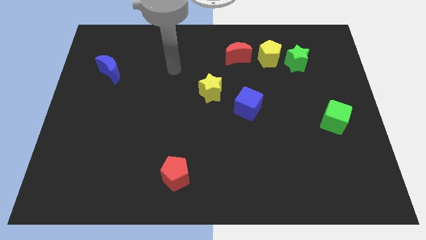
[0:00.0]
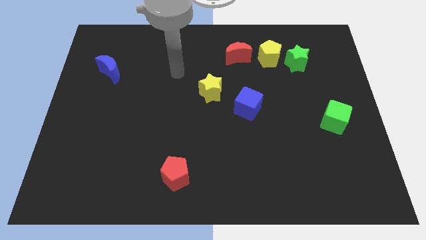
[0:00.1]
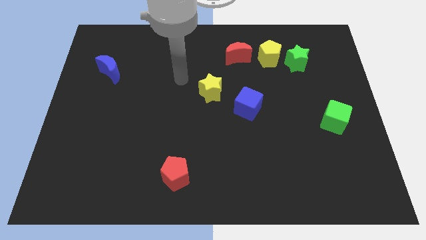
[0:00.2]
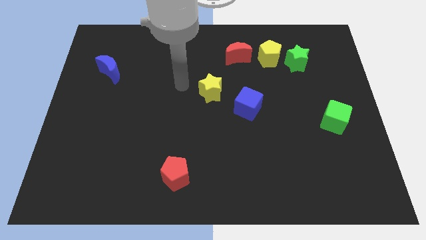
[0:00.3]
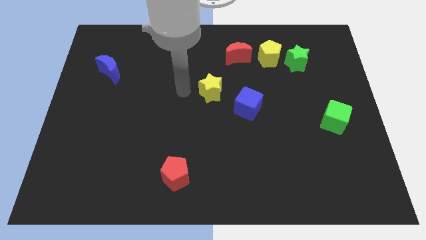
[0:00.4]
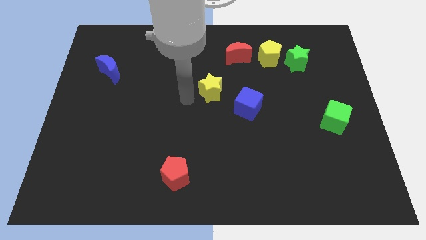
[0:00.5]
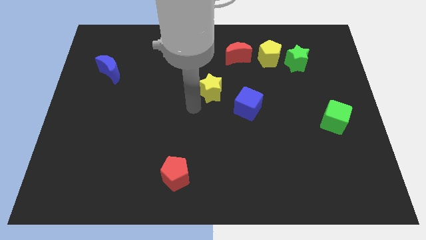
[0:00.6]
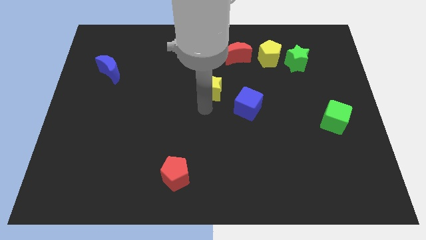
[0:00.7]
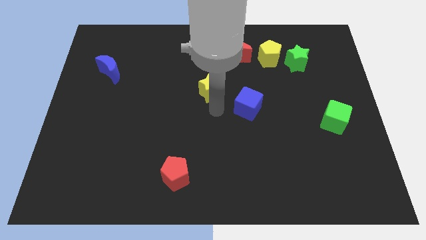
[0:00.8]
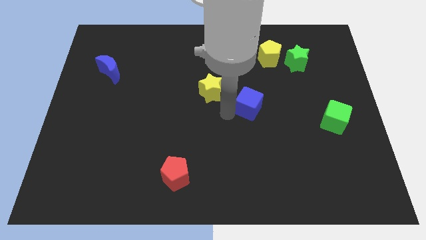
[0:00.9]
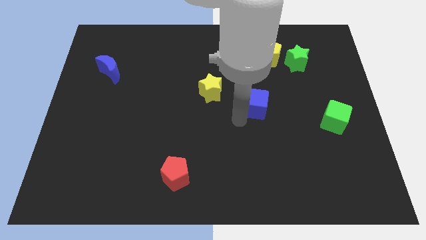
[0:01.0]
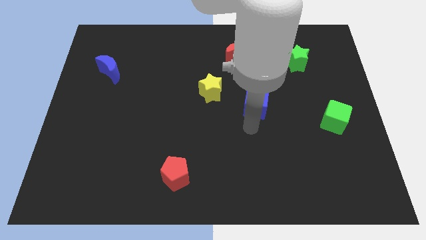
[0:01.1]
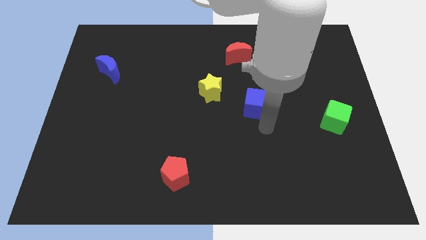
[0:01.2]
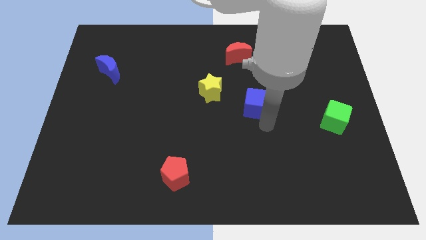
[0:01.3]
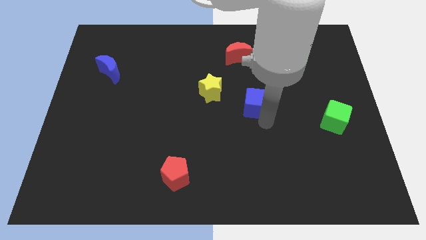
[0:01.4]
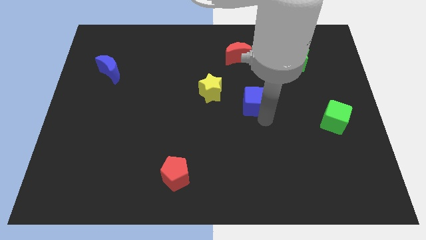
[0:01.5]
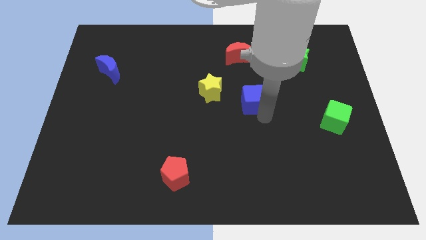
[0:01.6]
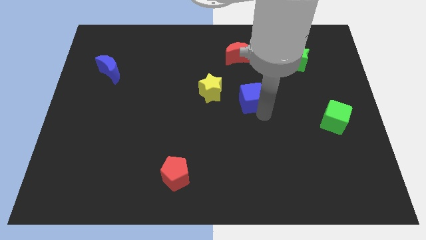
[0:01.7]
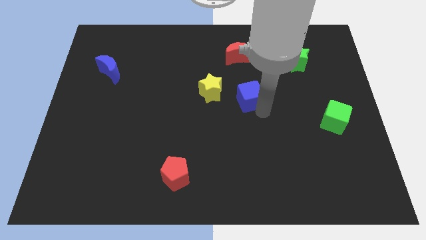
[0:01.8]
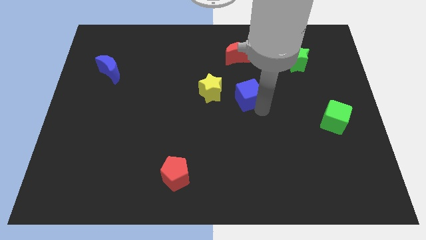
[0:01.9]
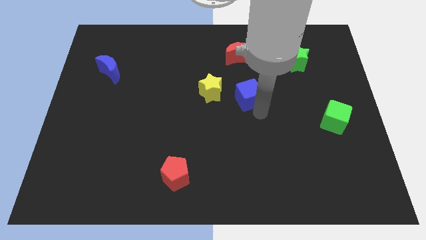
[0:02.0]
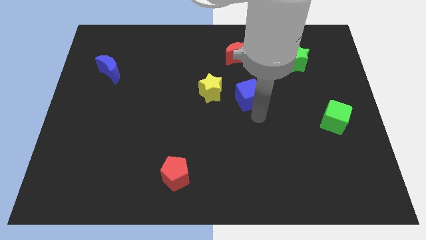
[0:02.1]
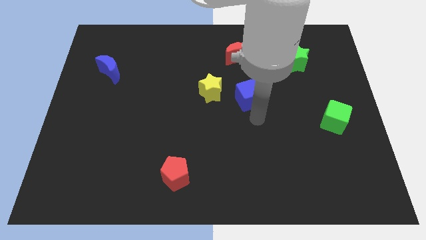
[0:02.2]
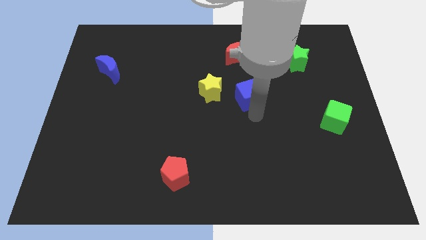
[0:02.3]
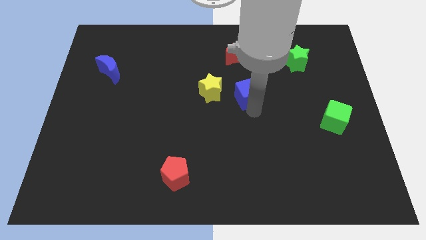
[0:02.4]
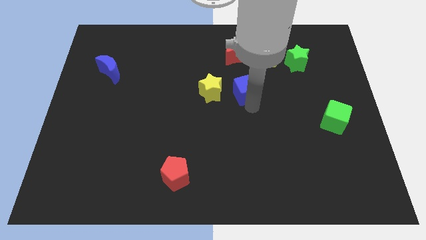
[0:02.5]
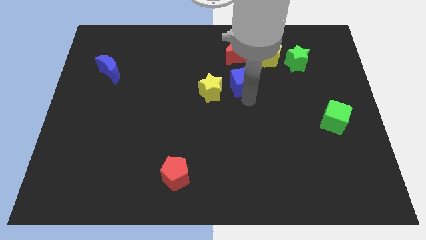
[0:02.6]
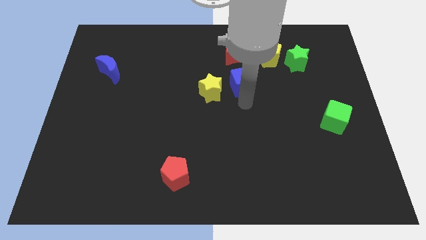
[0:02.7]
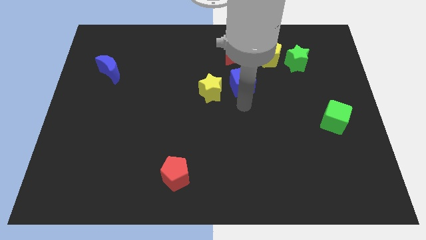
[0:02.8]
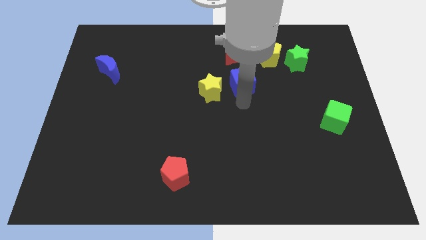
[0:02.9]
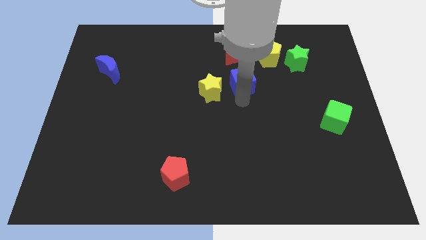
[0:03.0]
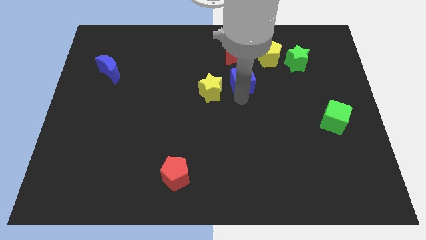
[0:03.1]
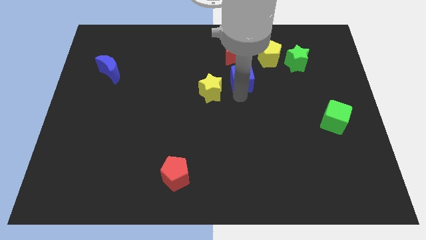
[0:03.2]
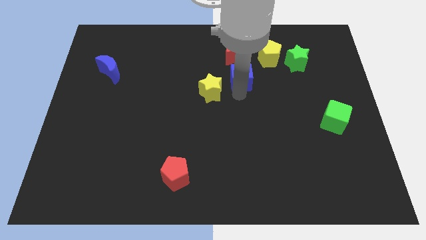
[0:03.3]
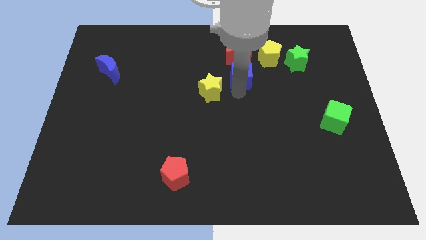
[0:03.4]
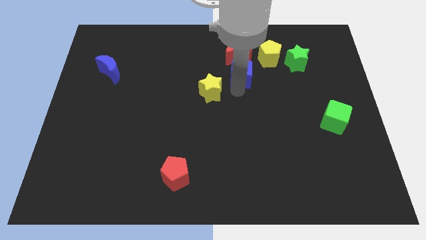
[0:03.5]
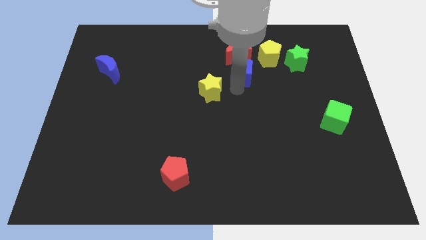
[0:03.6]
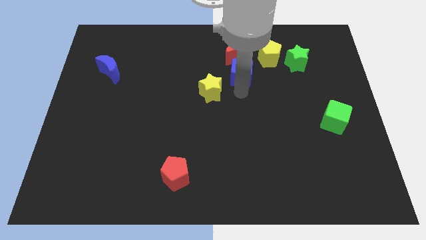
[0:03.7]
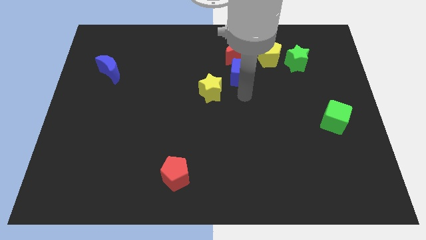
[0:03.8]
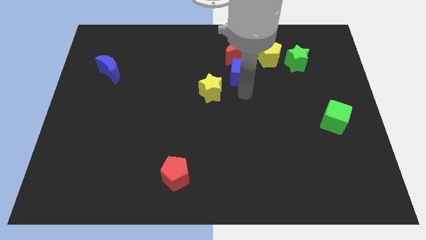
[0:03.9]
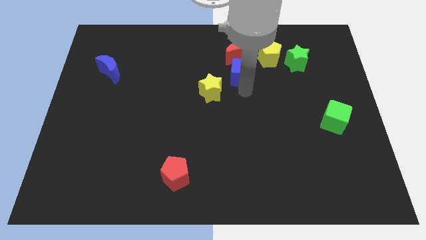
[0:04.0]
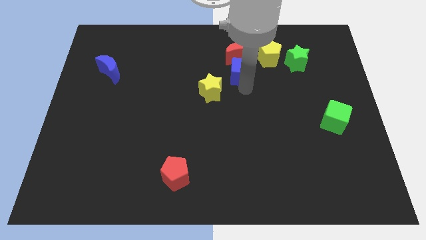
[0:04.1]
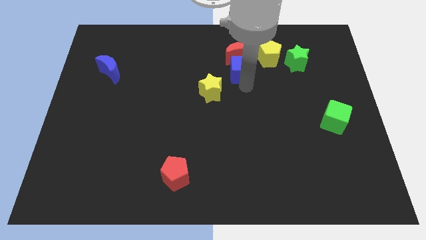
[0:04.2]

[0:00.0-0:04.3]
push the blue cube to the red moon

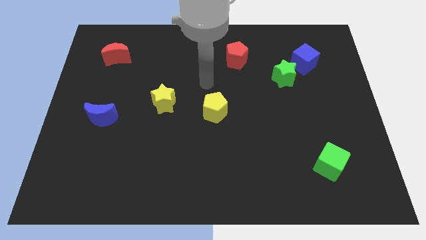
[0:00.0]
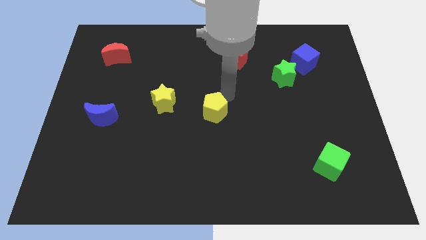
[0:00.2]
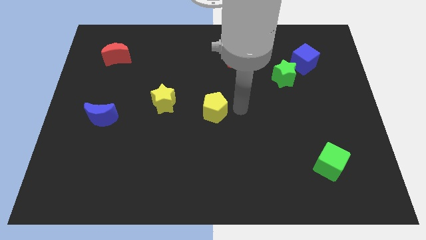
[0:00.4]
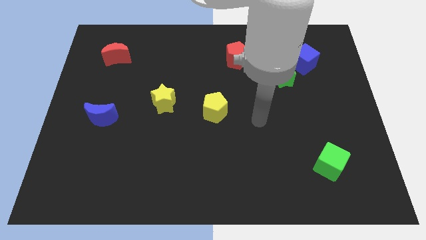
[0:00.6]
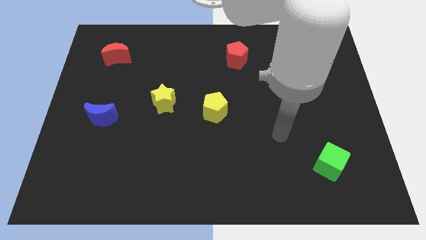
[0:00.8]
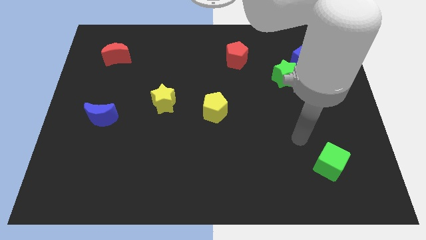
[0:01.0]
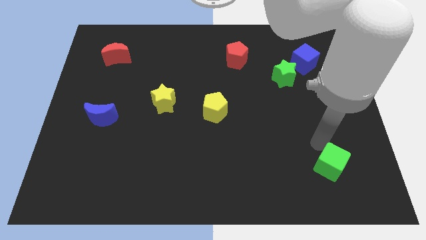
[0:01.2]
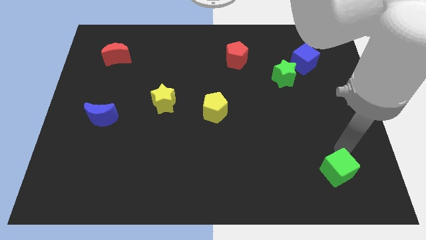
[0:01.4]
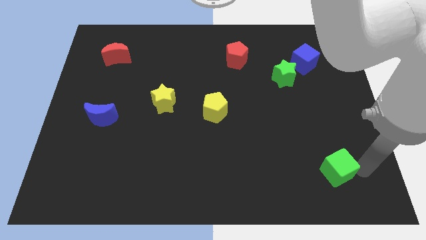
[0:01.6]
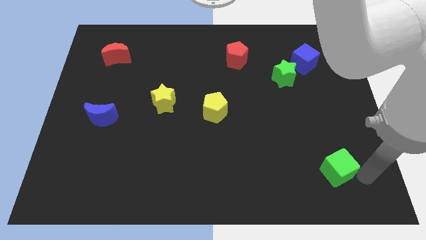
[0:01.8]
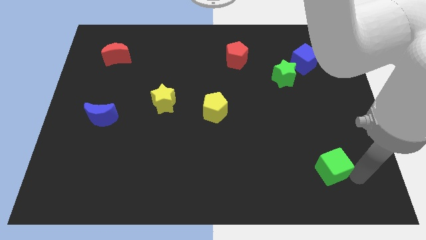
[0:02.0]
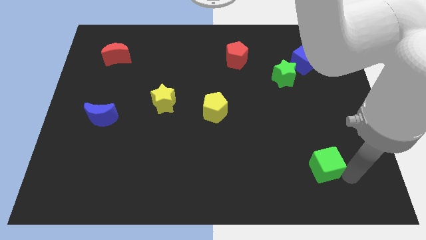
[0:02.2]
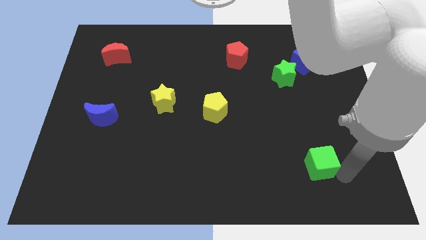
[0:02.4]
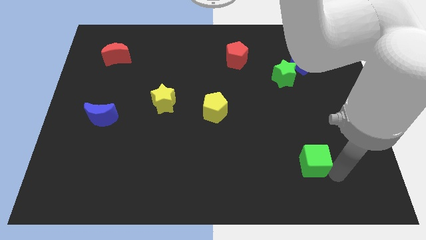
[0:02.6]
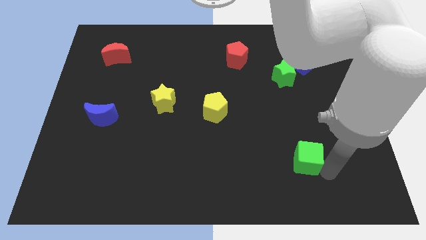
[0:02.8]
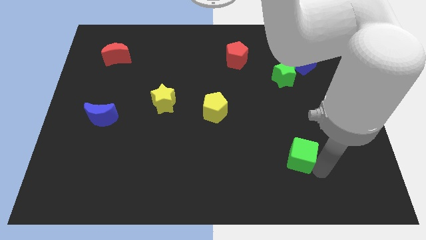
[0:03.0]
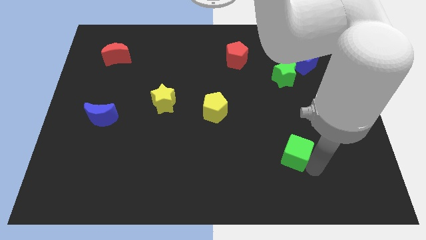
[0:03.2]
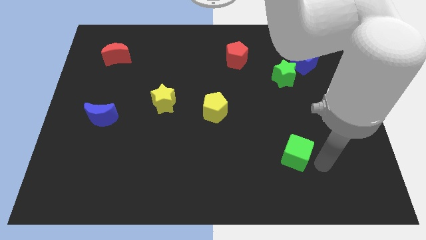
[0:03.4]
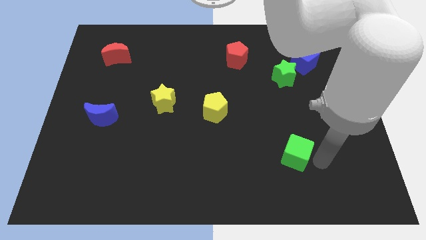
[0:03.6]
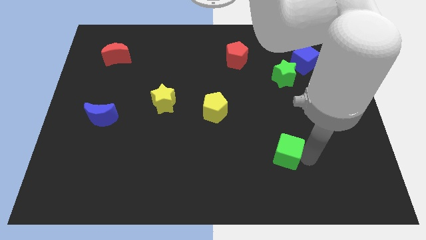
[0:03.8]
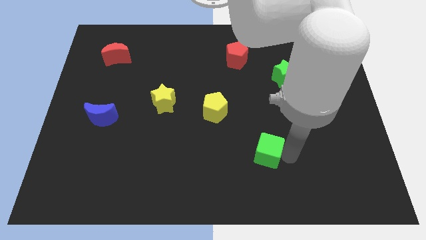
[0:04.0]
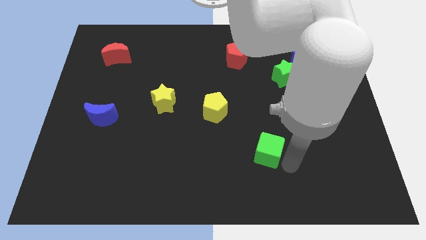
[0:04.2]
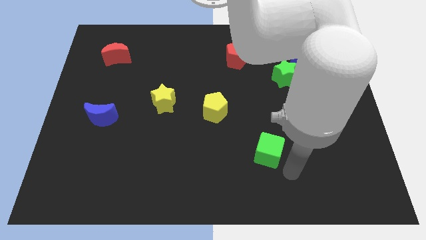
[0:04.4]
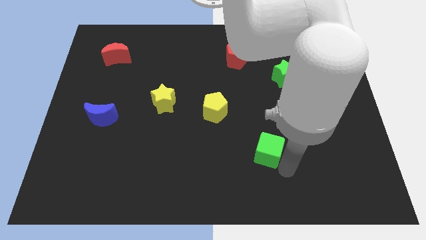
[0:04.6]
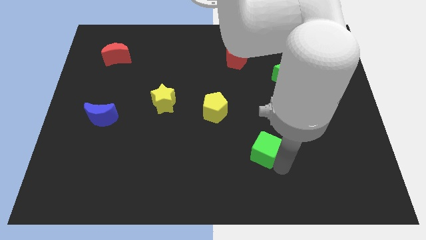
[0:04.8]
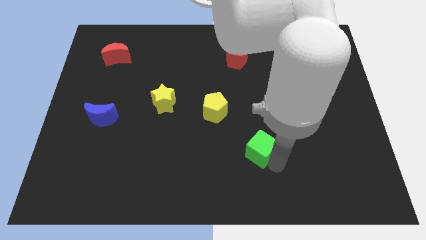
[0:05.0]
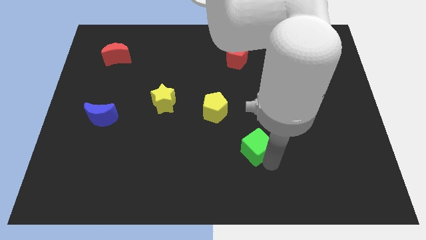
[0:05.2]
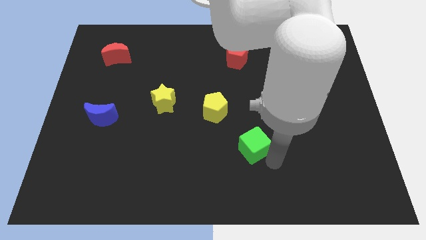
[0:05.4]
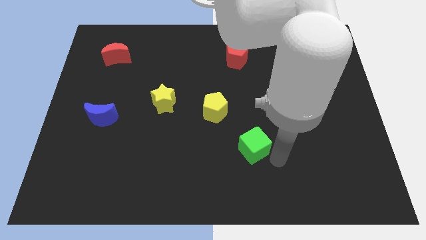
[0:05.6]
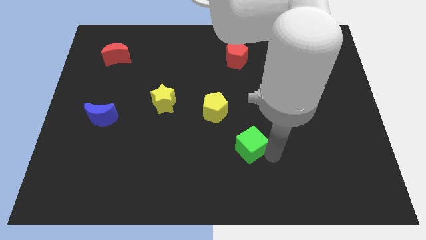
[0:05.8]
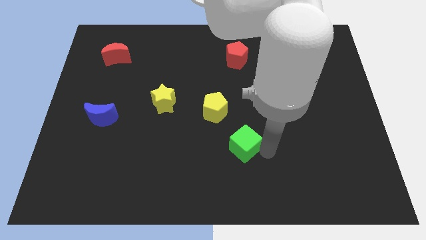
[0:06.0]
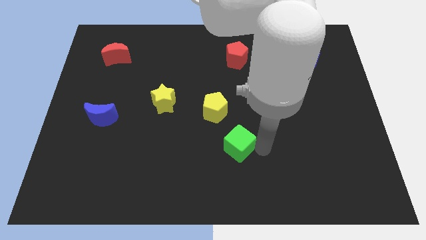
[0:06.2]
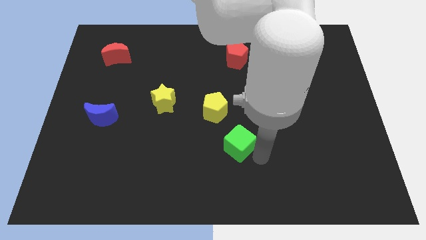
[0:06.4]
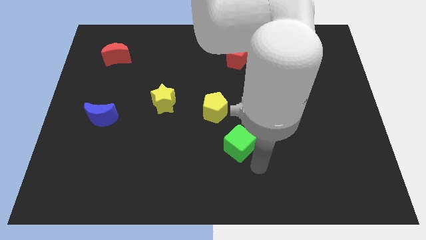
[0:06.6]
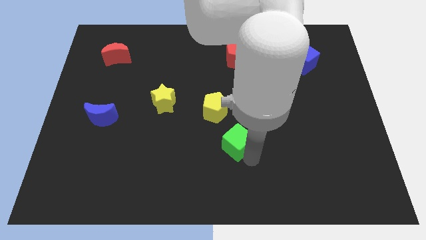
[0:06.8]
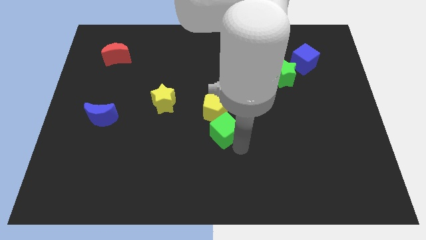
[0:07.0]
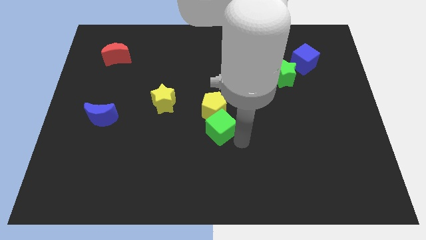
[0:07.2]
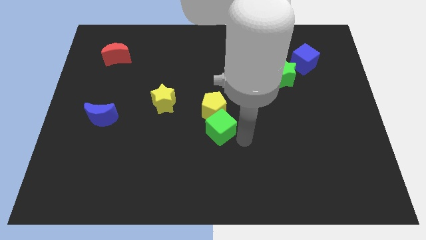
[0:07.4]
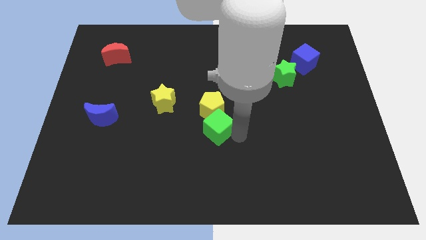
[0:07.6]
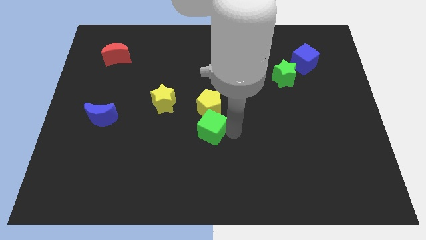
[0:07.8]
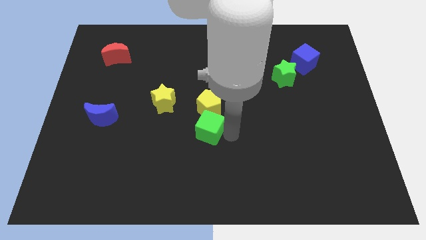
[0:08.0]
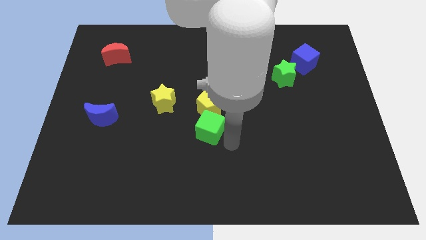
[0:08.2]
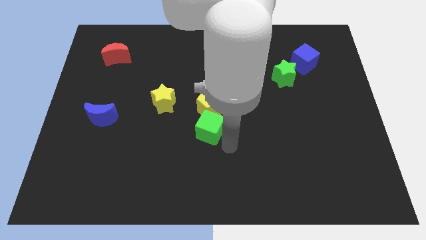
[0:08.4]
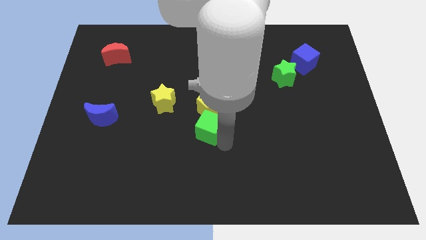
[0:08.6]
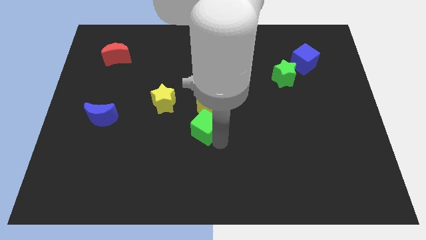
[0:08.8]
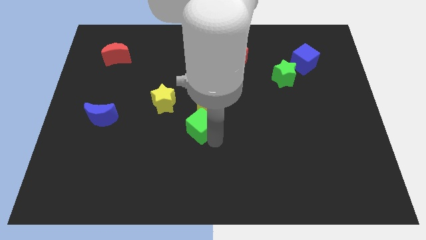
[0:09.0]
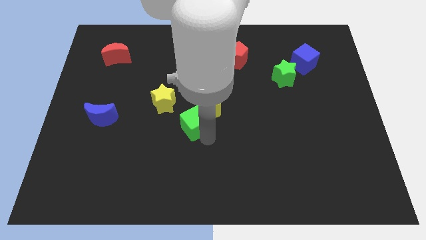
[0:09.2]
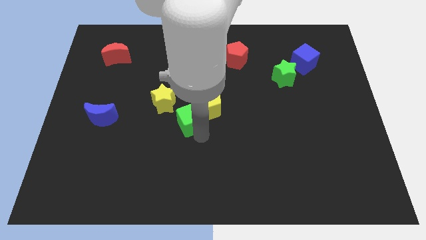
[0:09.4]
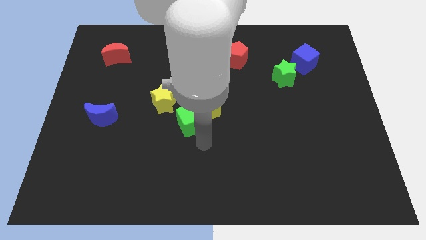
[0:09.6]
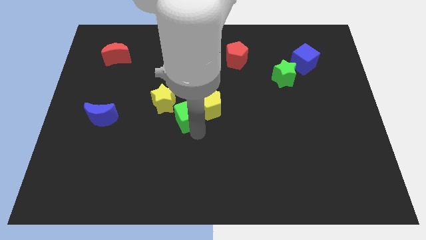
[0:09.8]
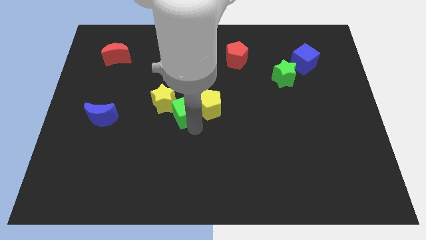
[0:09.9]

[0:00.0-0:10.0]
slide the green cube towards the yellow star
